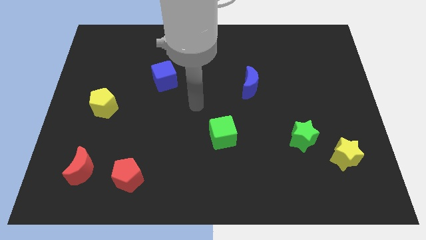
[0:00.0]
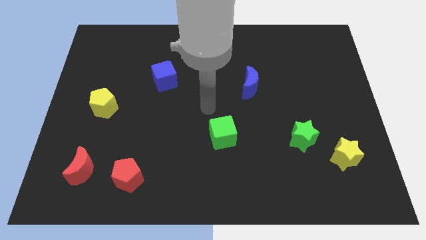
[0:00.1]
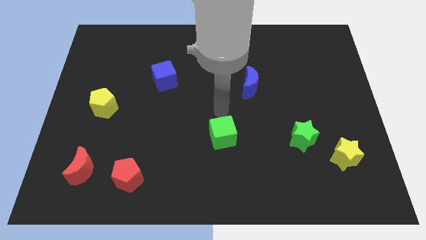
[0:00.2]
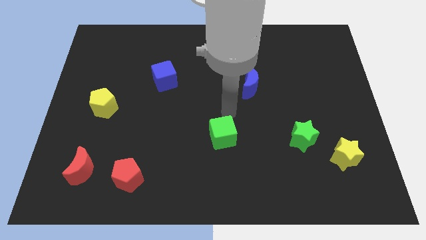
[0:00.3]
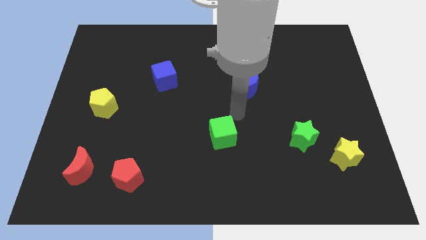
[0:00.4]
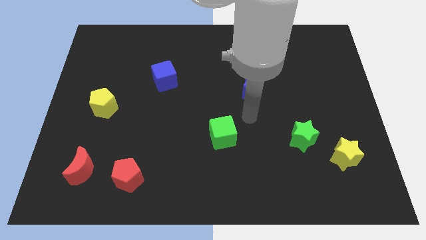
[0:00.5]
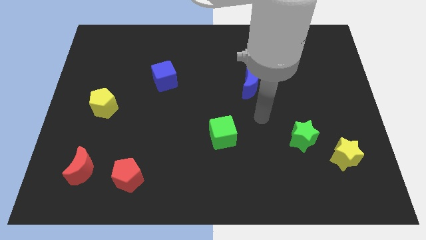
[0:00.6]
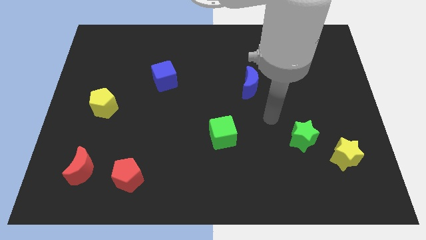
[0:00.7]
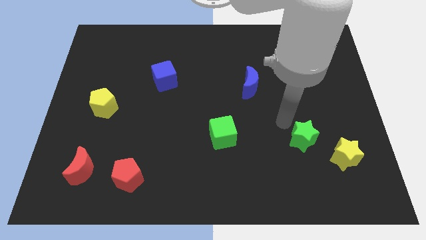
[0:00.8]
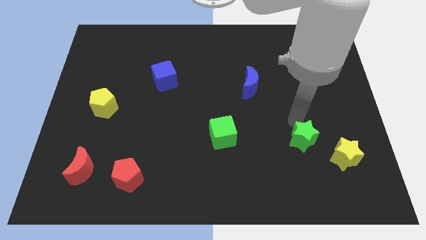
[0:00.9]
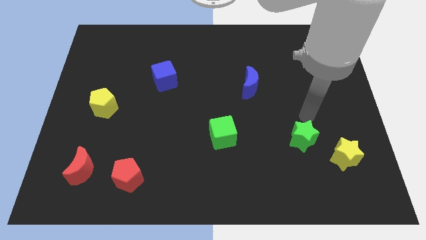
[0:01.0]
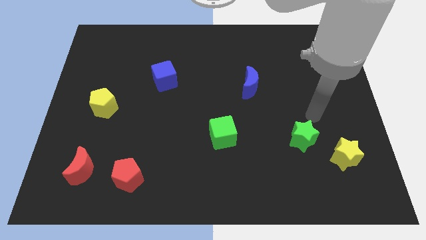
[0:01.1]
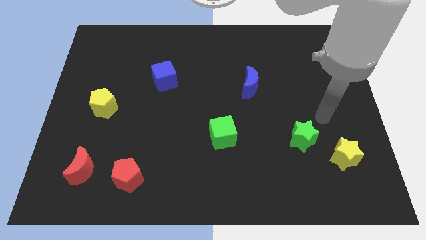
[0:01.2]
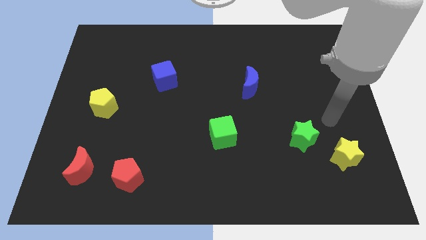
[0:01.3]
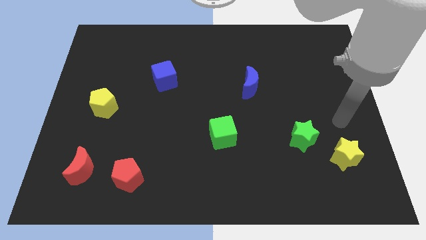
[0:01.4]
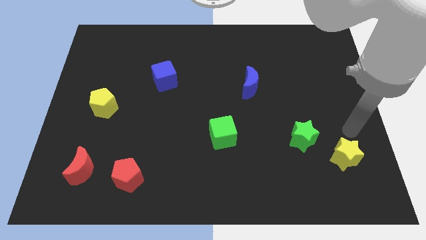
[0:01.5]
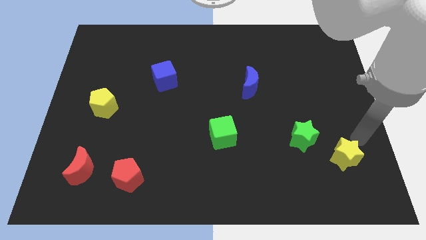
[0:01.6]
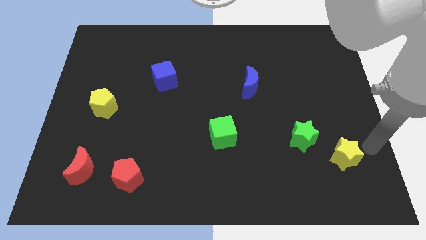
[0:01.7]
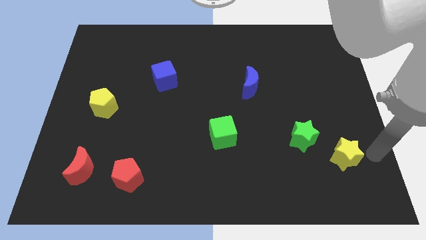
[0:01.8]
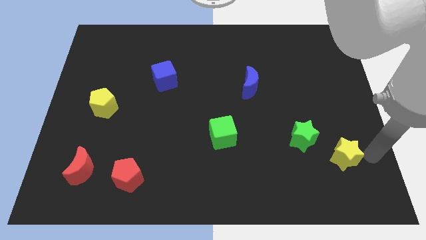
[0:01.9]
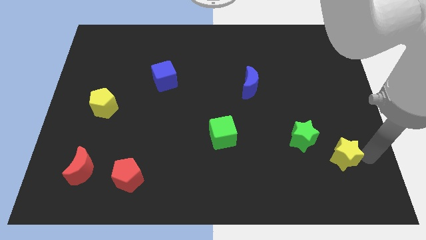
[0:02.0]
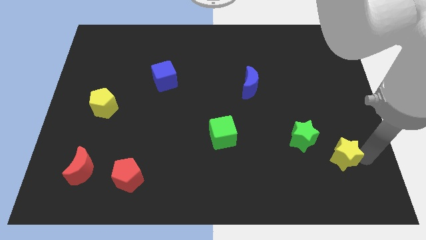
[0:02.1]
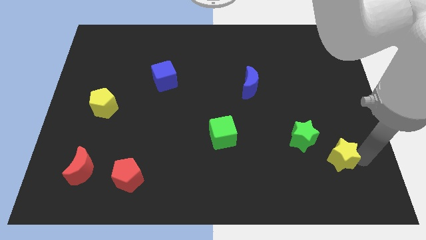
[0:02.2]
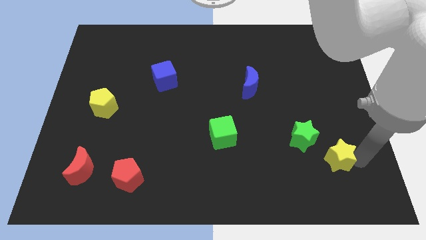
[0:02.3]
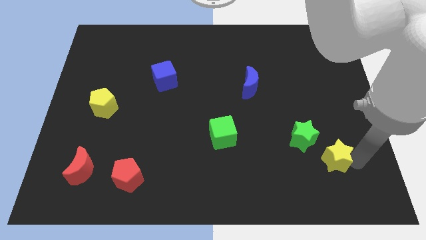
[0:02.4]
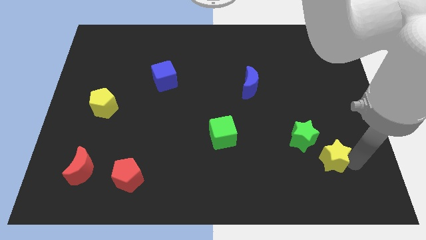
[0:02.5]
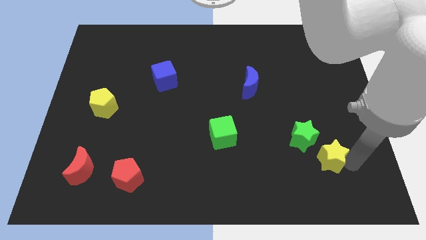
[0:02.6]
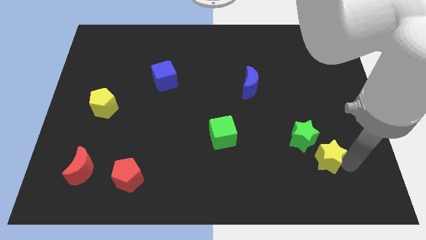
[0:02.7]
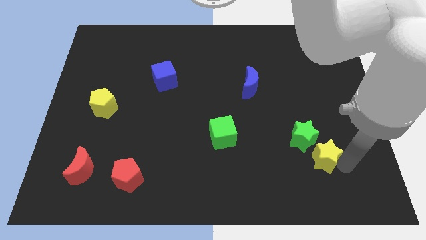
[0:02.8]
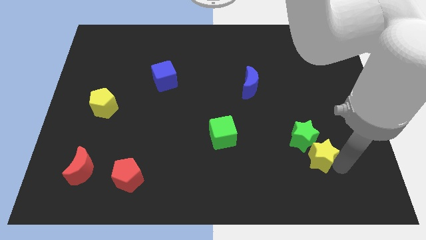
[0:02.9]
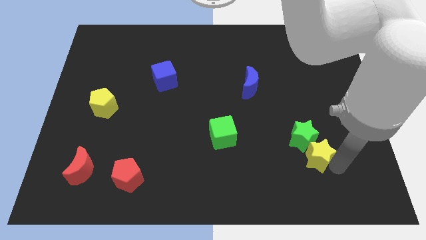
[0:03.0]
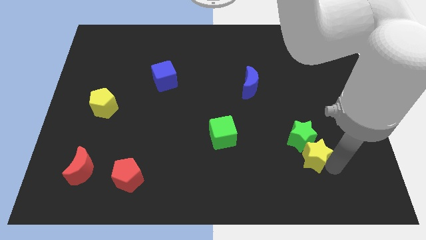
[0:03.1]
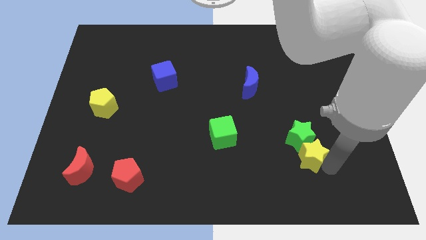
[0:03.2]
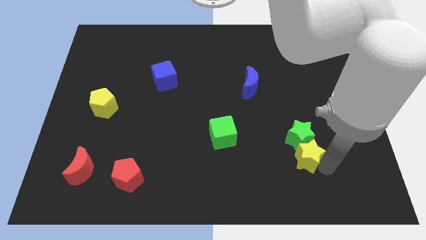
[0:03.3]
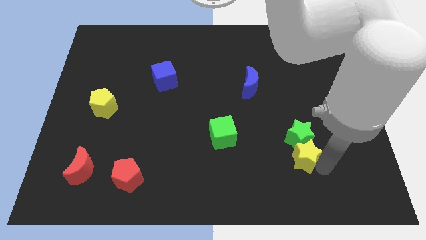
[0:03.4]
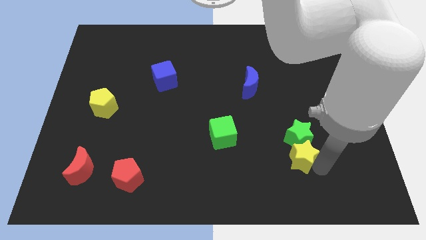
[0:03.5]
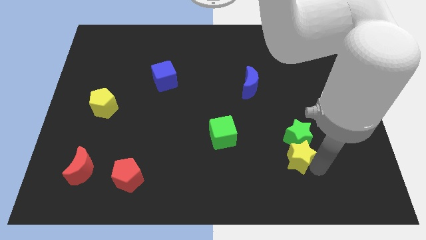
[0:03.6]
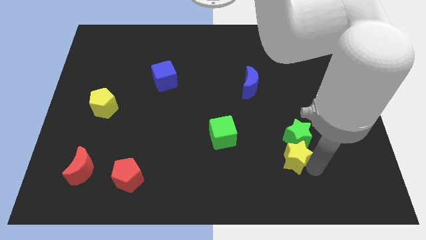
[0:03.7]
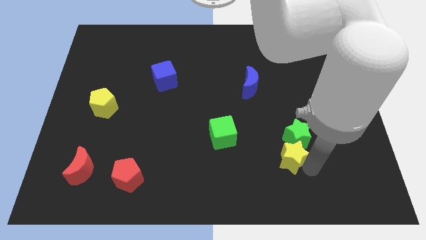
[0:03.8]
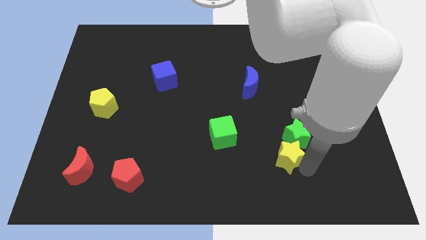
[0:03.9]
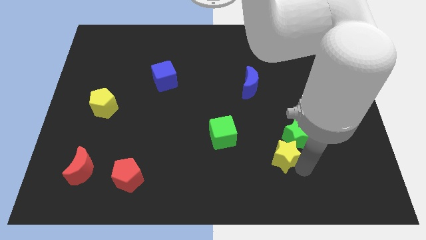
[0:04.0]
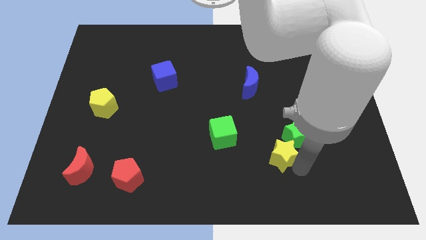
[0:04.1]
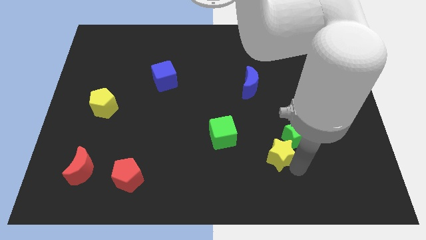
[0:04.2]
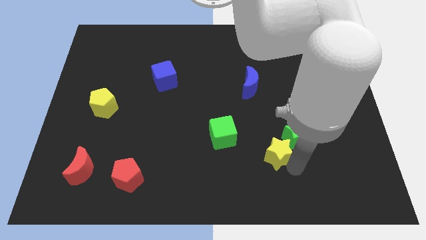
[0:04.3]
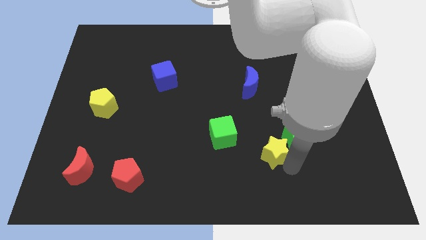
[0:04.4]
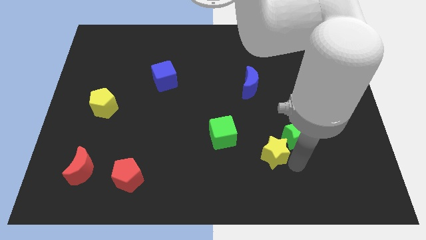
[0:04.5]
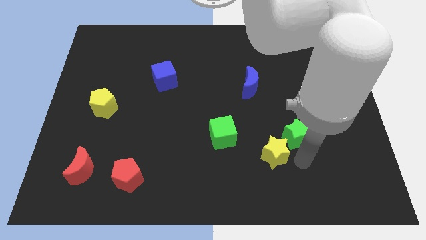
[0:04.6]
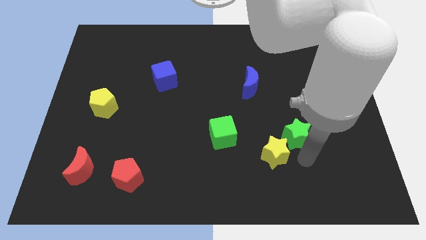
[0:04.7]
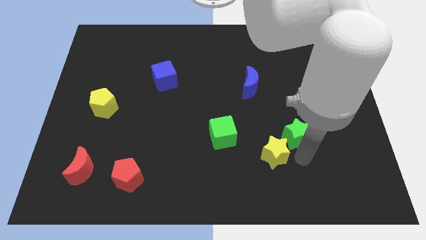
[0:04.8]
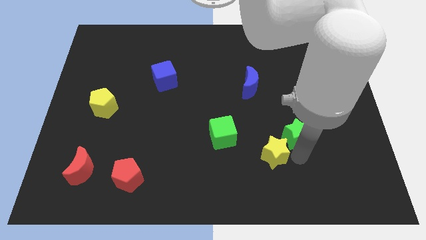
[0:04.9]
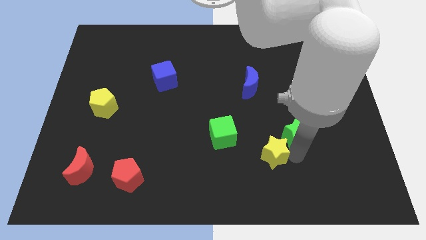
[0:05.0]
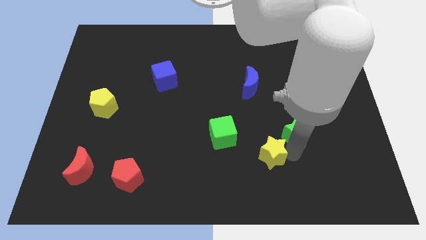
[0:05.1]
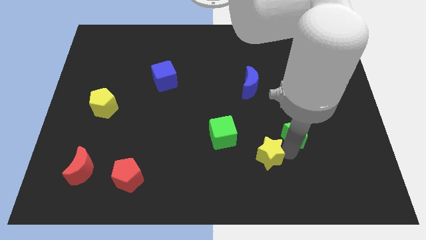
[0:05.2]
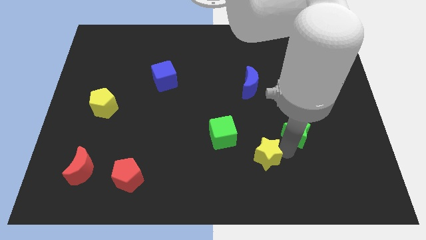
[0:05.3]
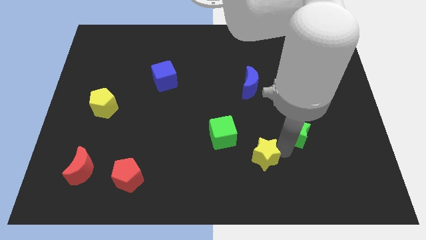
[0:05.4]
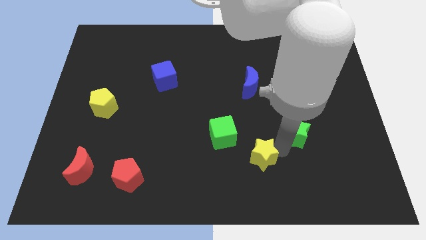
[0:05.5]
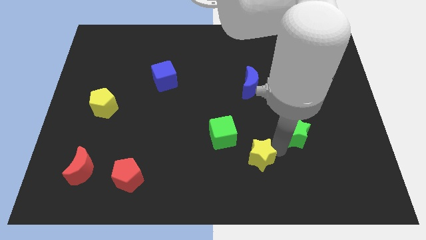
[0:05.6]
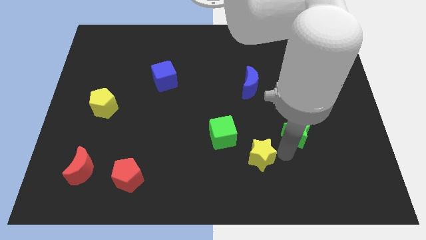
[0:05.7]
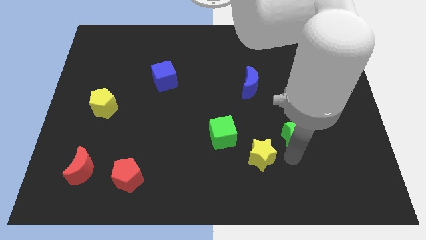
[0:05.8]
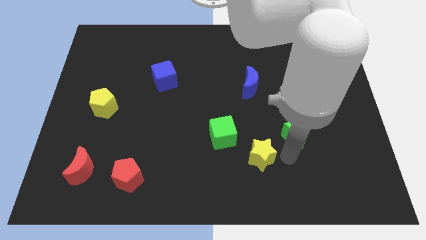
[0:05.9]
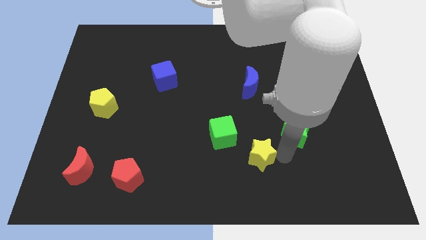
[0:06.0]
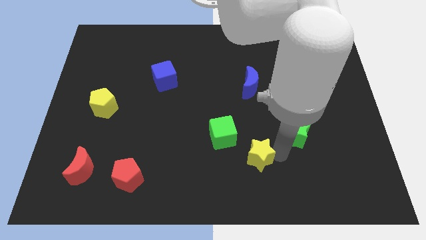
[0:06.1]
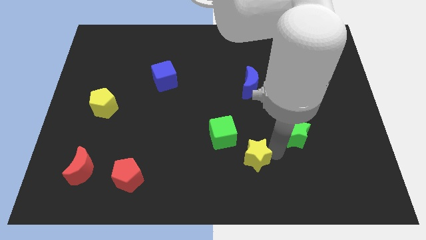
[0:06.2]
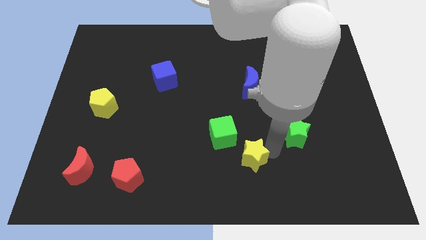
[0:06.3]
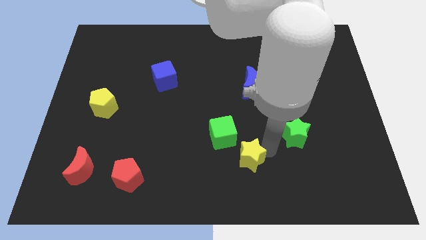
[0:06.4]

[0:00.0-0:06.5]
slide the yellow star to the left

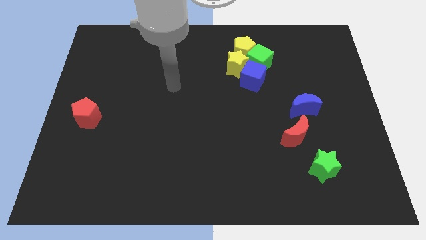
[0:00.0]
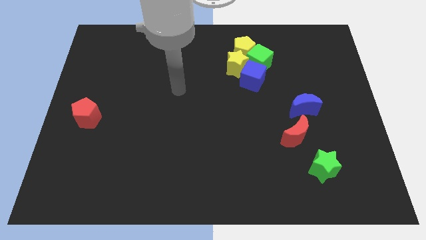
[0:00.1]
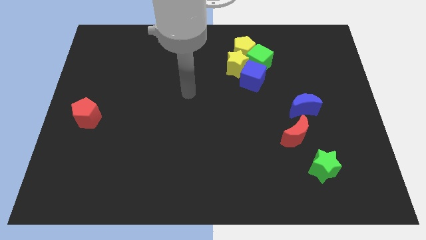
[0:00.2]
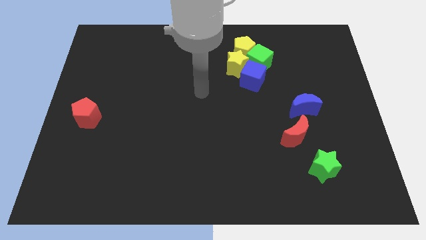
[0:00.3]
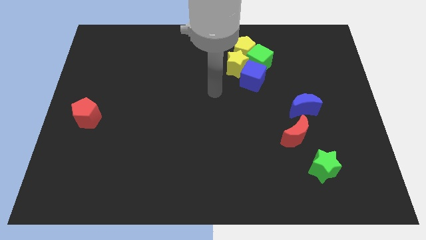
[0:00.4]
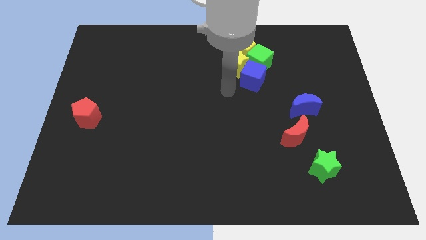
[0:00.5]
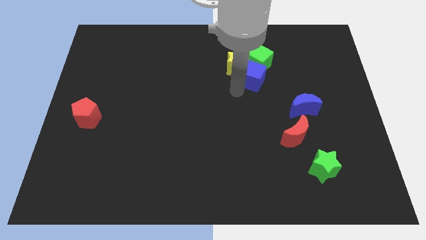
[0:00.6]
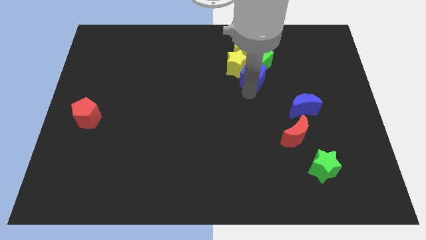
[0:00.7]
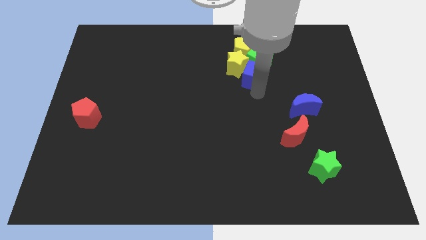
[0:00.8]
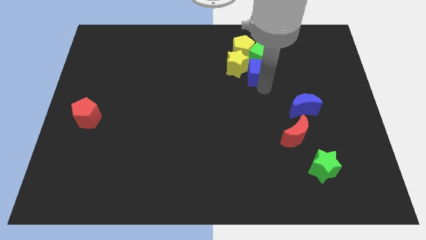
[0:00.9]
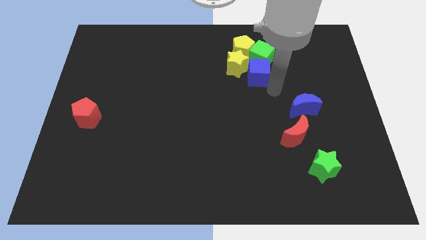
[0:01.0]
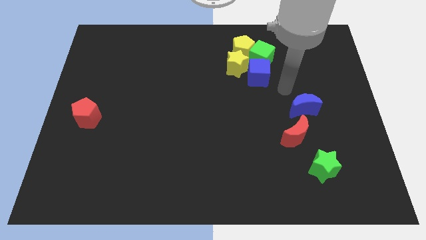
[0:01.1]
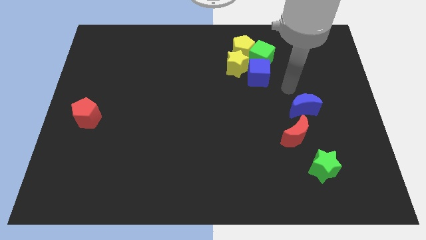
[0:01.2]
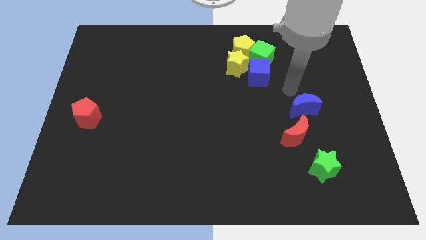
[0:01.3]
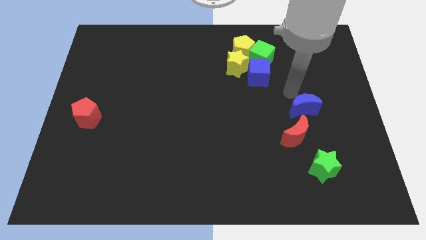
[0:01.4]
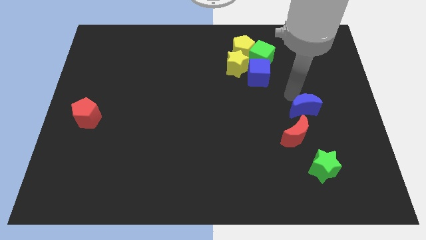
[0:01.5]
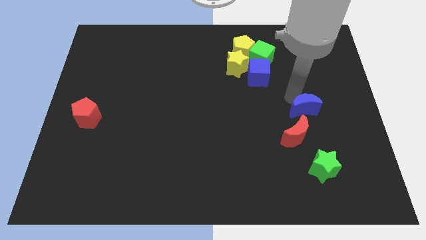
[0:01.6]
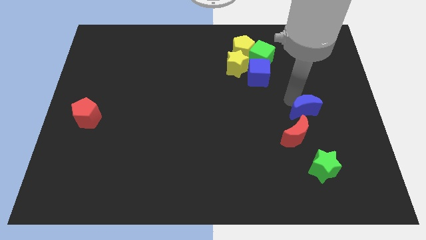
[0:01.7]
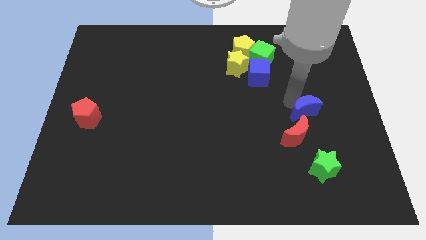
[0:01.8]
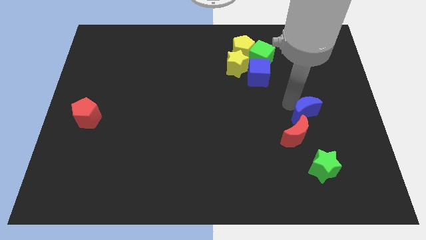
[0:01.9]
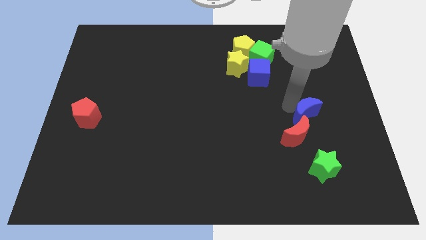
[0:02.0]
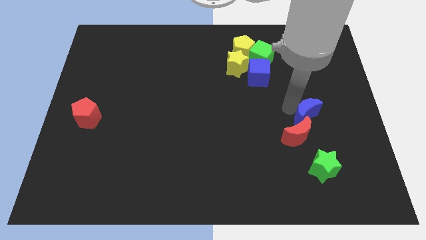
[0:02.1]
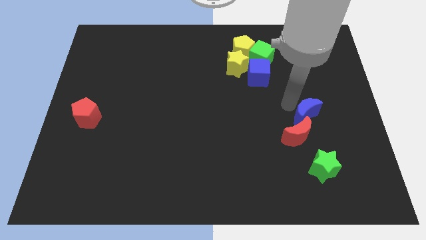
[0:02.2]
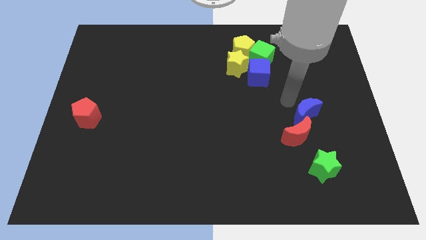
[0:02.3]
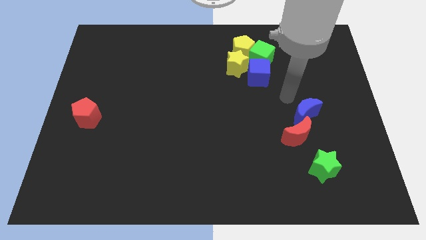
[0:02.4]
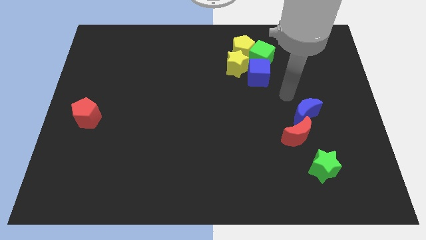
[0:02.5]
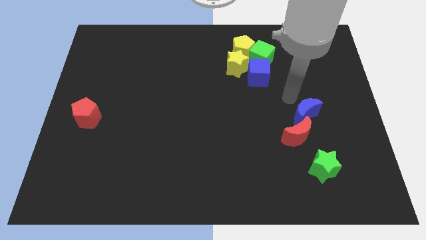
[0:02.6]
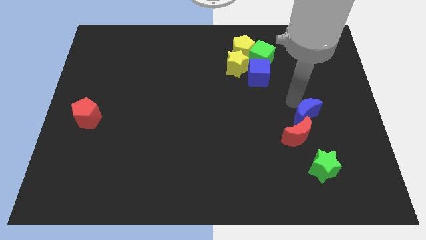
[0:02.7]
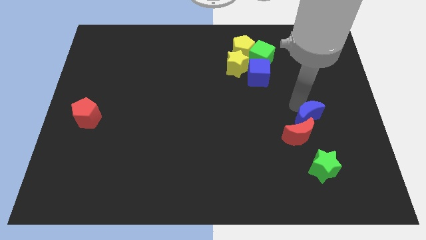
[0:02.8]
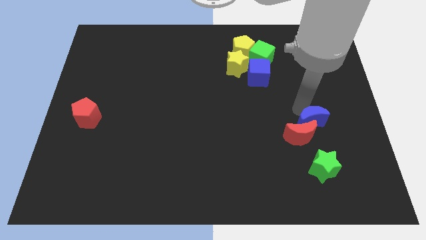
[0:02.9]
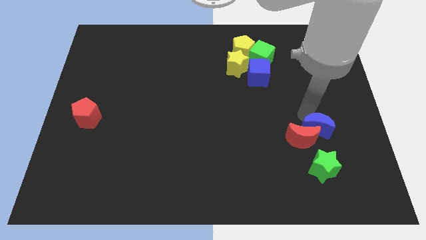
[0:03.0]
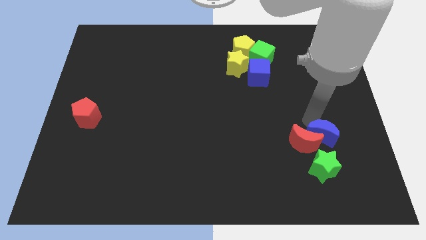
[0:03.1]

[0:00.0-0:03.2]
move the blue moon downwards somewhat
